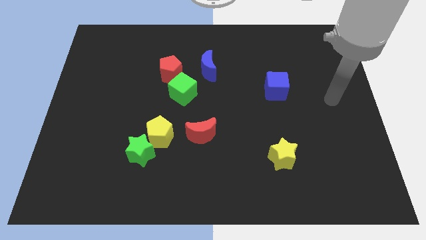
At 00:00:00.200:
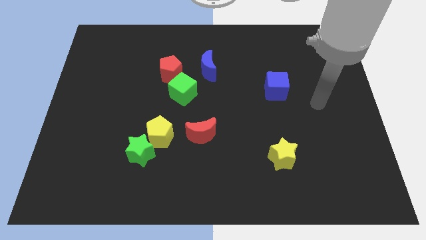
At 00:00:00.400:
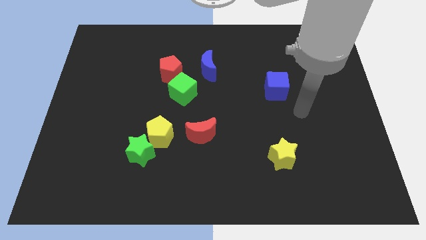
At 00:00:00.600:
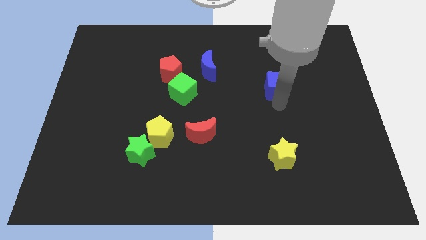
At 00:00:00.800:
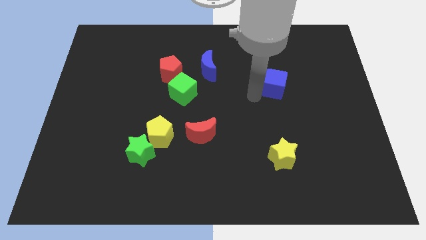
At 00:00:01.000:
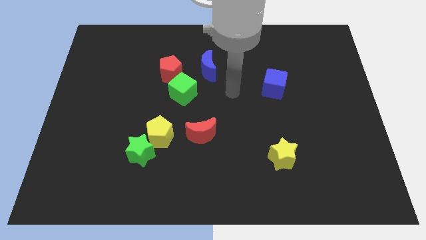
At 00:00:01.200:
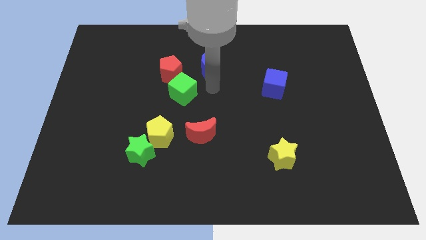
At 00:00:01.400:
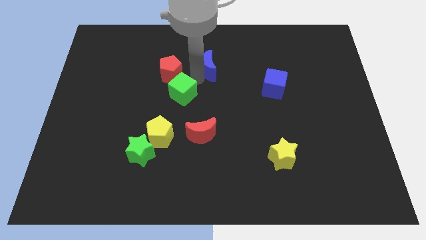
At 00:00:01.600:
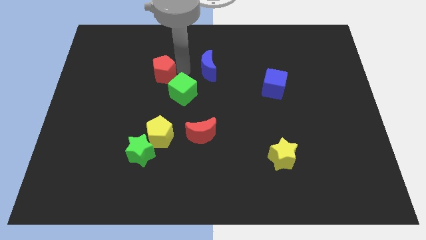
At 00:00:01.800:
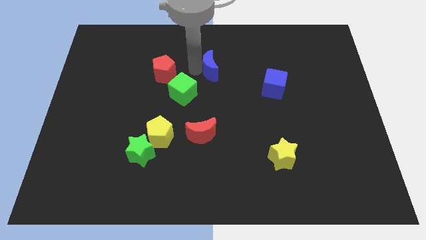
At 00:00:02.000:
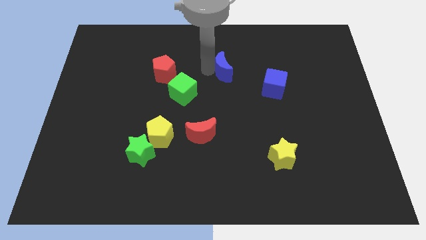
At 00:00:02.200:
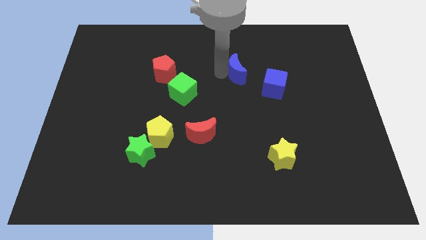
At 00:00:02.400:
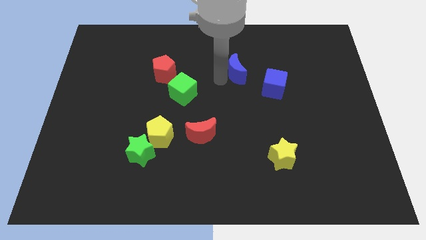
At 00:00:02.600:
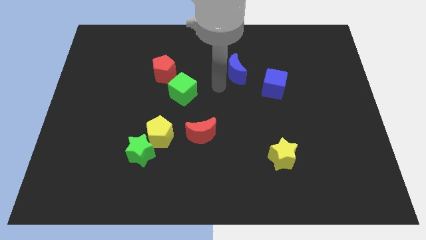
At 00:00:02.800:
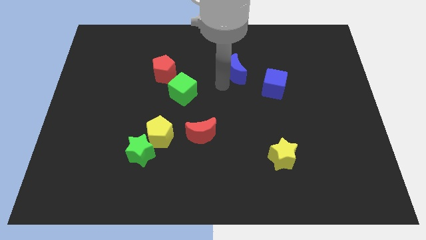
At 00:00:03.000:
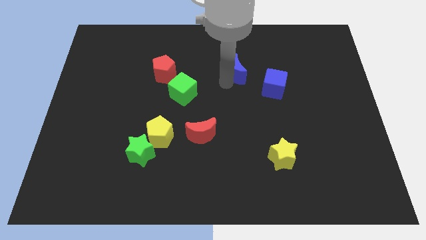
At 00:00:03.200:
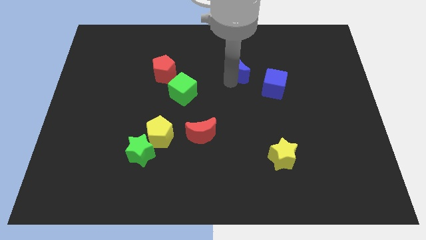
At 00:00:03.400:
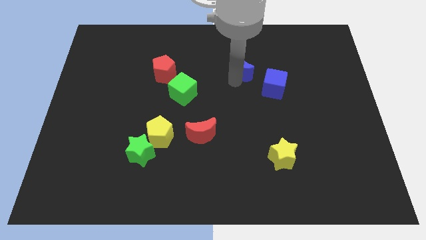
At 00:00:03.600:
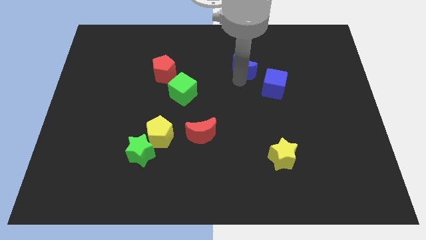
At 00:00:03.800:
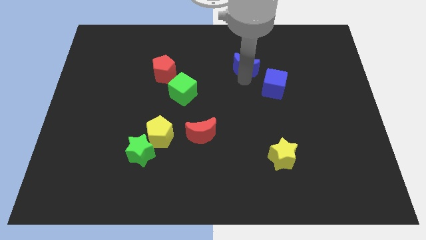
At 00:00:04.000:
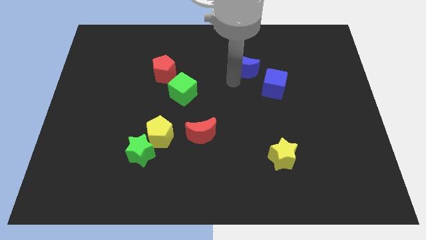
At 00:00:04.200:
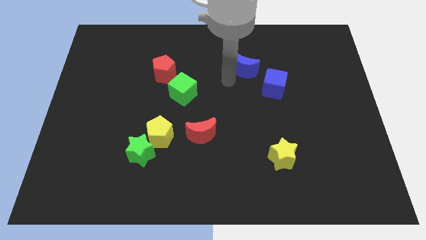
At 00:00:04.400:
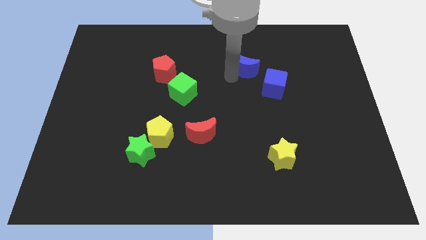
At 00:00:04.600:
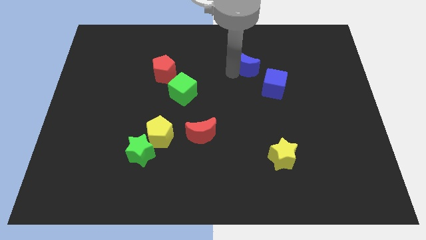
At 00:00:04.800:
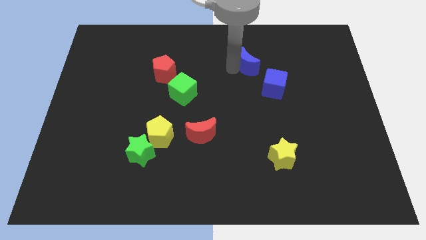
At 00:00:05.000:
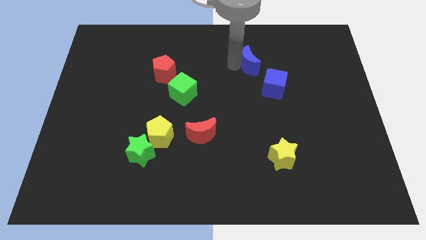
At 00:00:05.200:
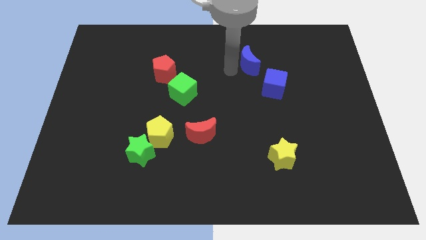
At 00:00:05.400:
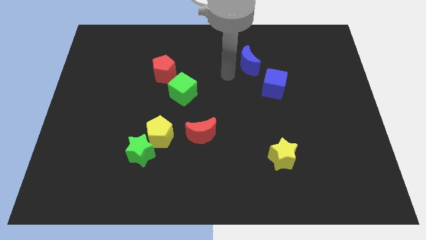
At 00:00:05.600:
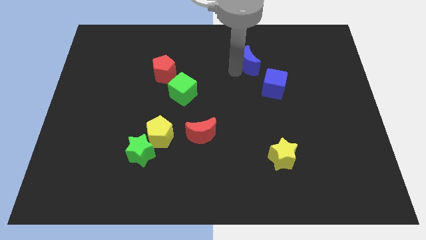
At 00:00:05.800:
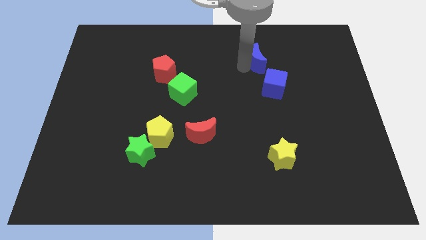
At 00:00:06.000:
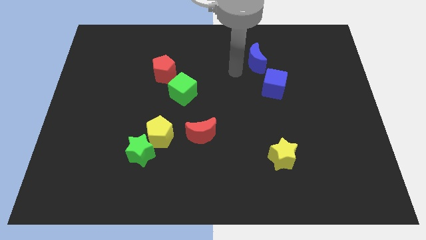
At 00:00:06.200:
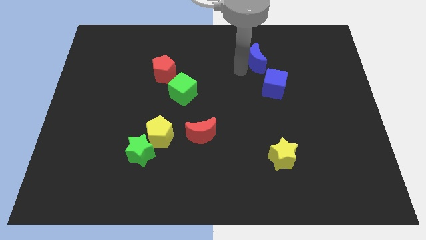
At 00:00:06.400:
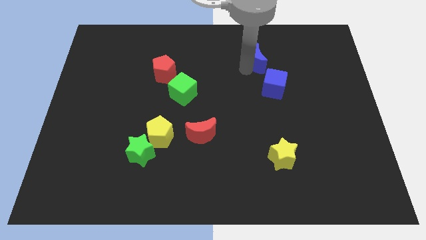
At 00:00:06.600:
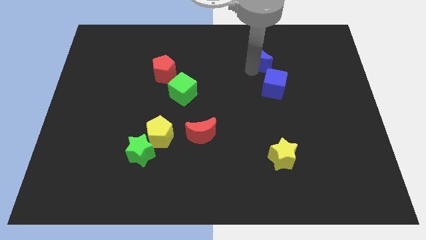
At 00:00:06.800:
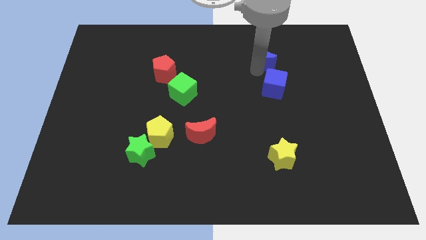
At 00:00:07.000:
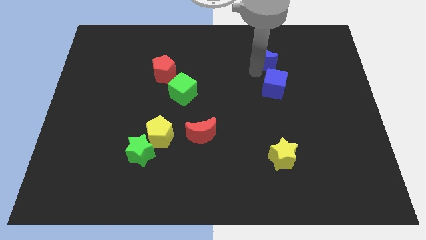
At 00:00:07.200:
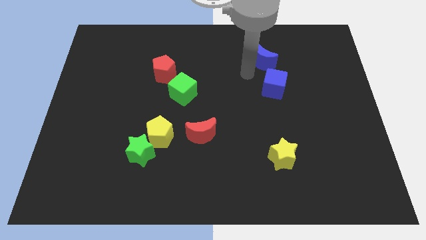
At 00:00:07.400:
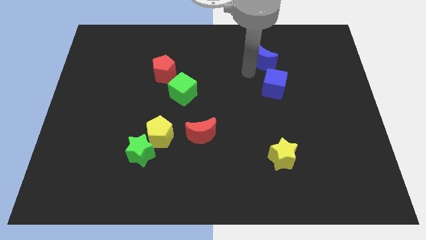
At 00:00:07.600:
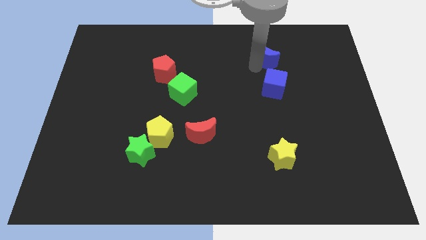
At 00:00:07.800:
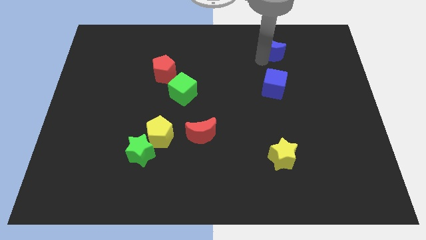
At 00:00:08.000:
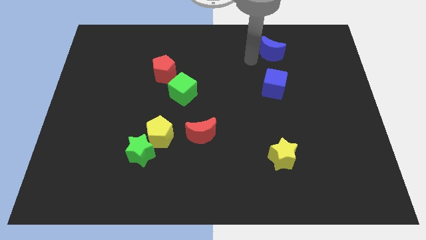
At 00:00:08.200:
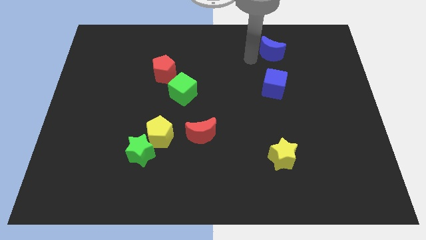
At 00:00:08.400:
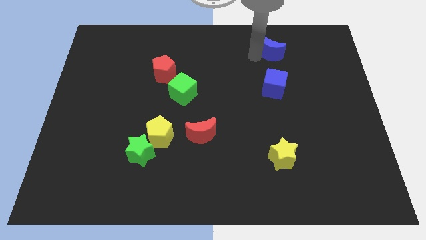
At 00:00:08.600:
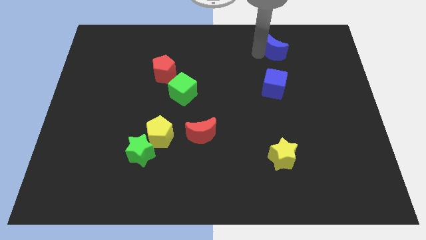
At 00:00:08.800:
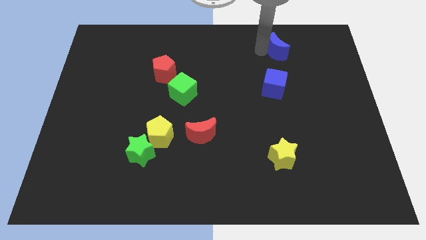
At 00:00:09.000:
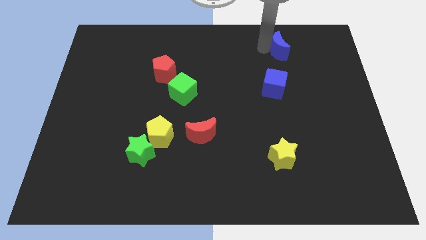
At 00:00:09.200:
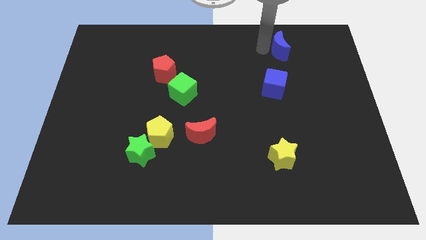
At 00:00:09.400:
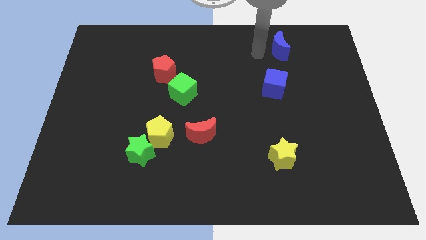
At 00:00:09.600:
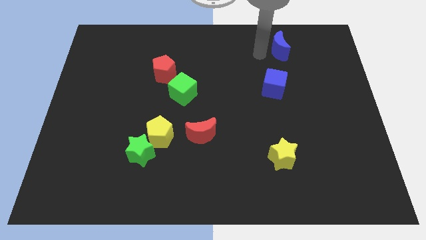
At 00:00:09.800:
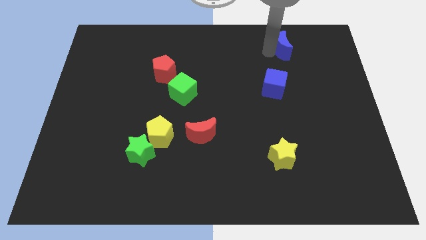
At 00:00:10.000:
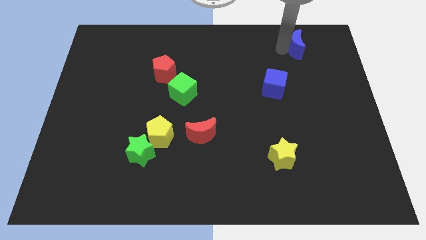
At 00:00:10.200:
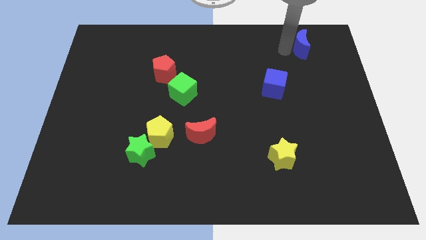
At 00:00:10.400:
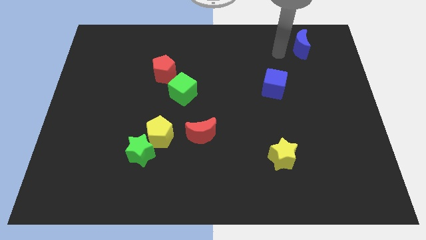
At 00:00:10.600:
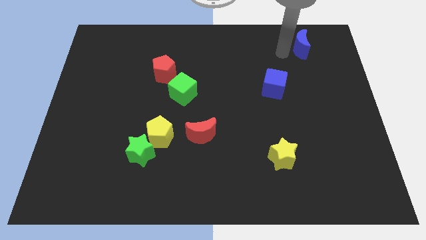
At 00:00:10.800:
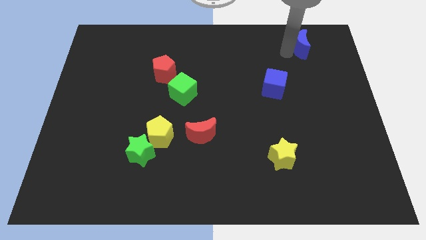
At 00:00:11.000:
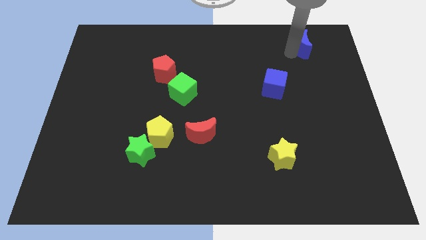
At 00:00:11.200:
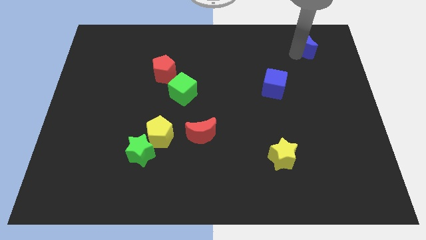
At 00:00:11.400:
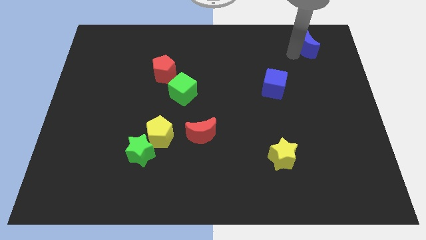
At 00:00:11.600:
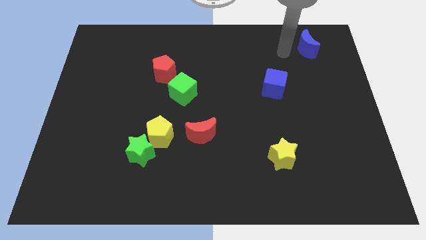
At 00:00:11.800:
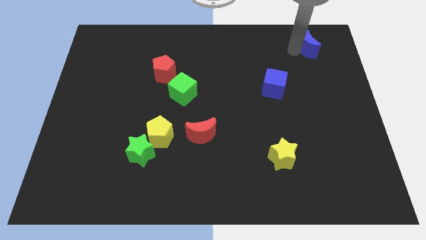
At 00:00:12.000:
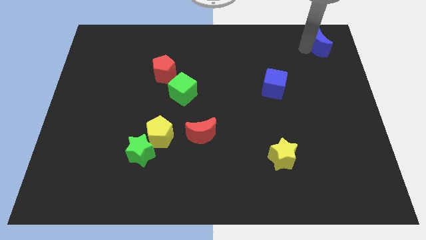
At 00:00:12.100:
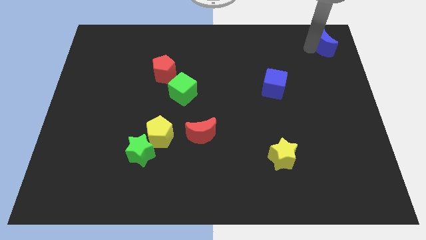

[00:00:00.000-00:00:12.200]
put the blue moon to the top right of the board

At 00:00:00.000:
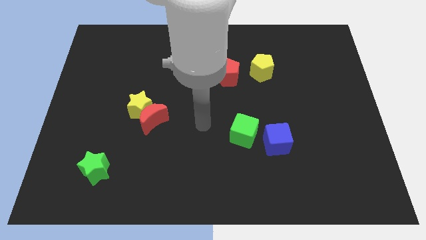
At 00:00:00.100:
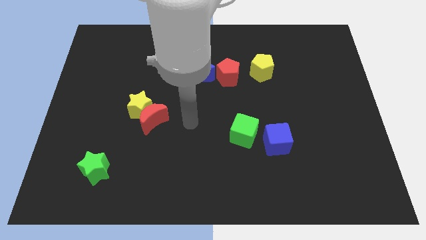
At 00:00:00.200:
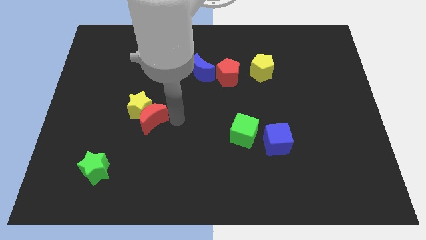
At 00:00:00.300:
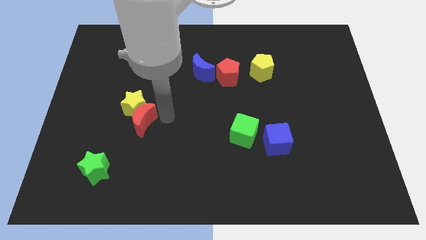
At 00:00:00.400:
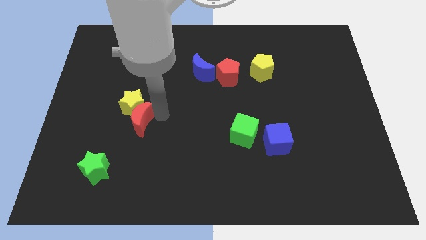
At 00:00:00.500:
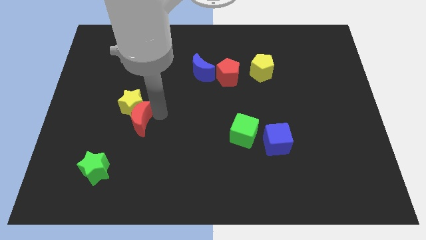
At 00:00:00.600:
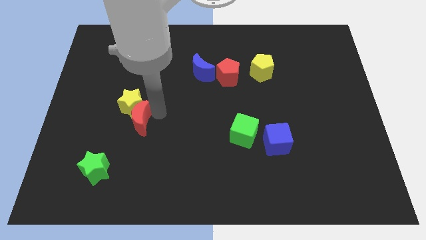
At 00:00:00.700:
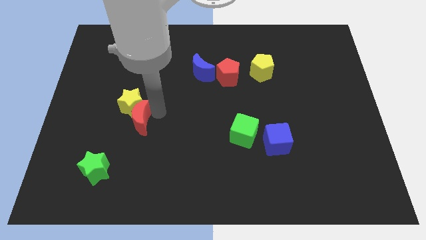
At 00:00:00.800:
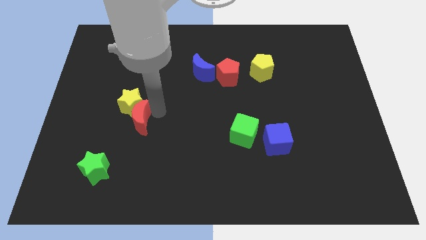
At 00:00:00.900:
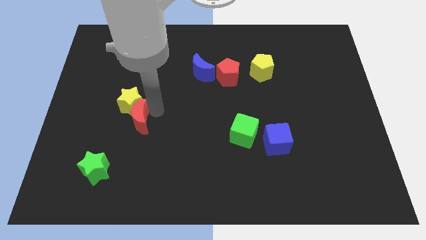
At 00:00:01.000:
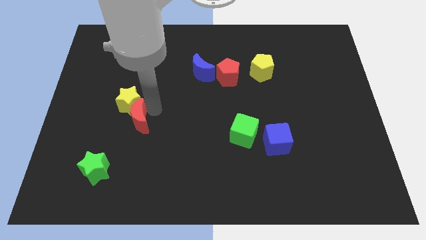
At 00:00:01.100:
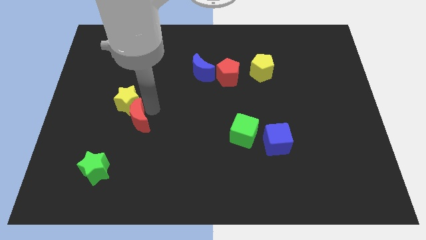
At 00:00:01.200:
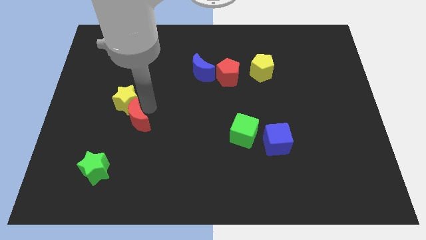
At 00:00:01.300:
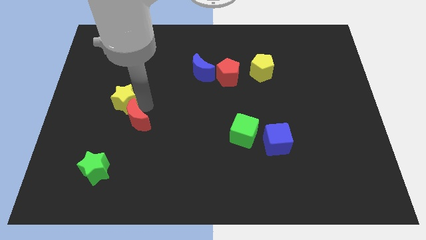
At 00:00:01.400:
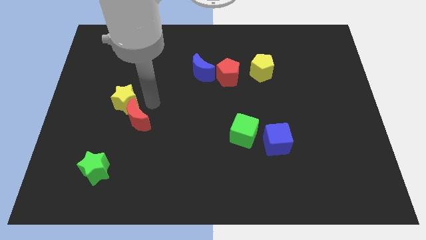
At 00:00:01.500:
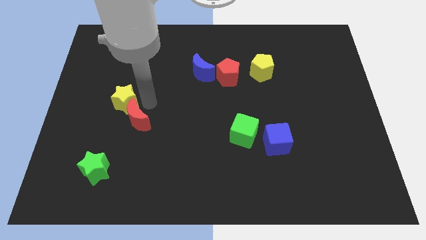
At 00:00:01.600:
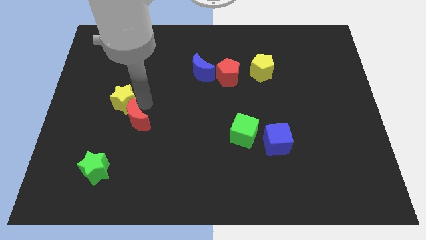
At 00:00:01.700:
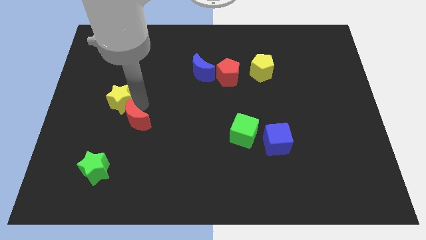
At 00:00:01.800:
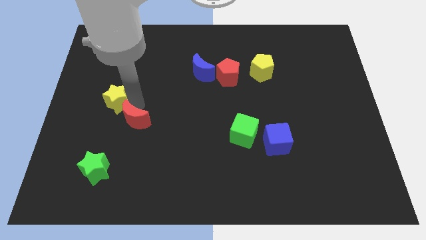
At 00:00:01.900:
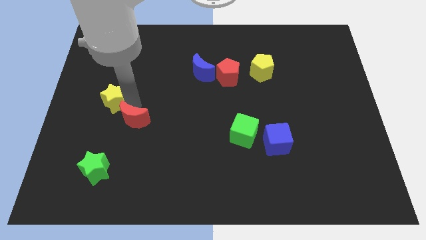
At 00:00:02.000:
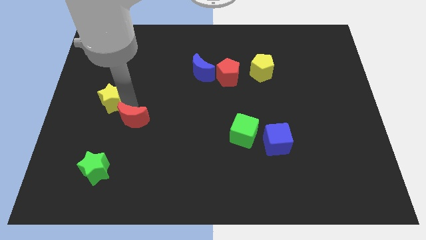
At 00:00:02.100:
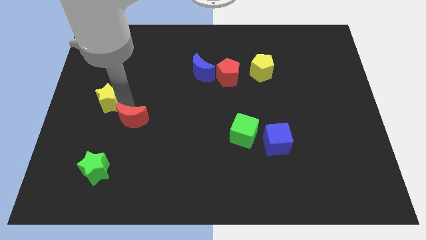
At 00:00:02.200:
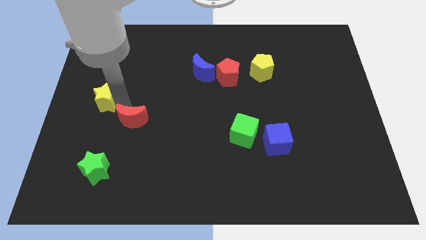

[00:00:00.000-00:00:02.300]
slide the yellow star to the center left
